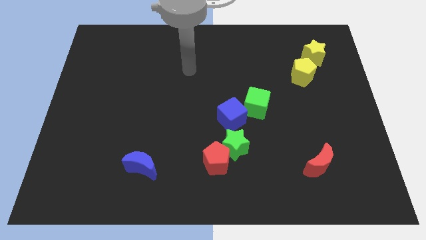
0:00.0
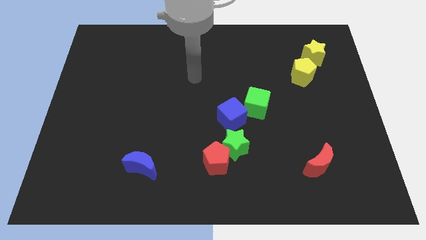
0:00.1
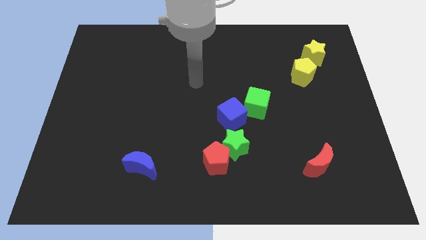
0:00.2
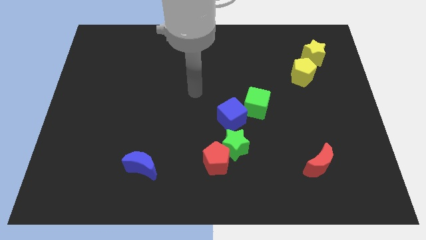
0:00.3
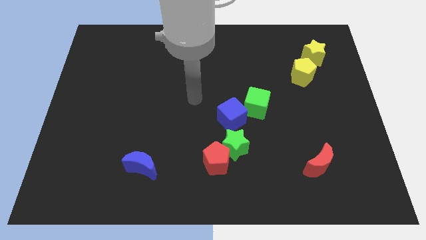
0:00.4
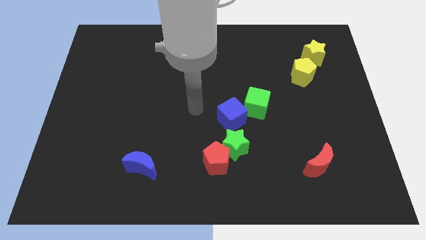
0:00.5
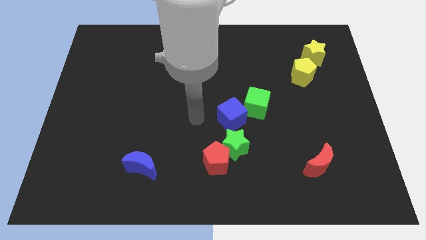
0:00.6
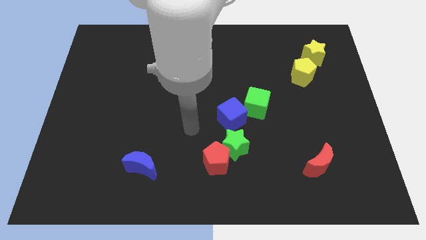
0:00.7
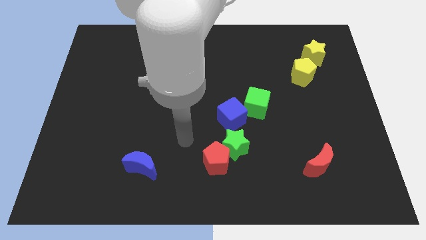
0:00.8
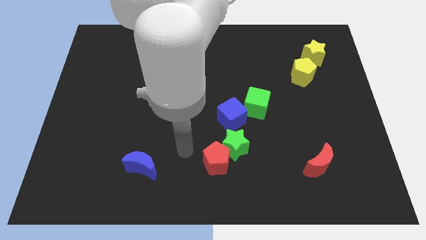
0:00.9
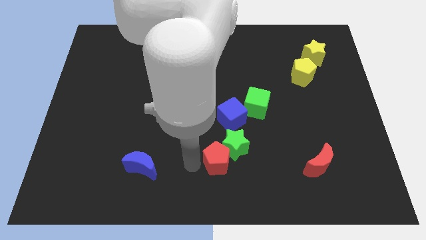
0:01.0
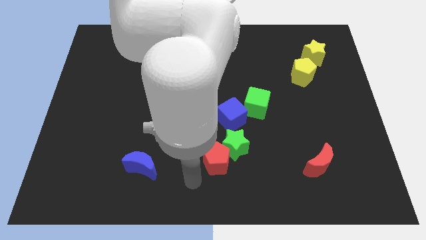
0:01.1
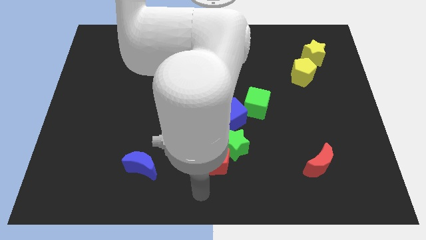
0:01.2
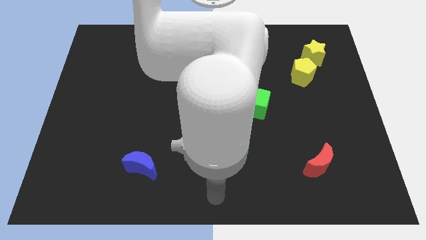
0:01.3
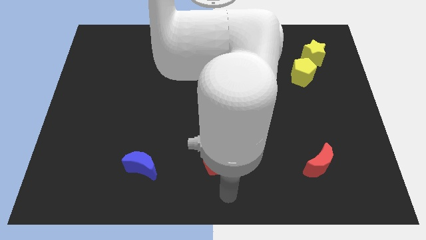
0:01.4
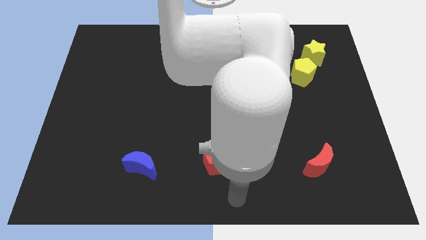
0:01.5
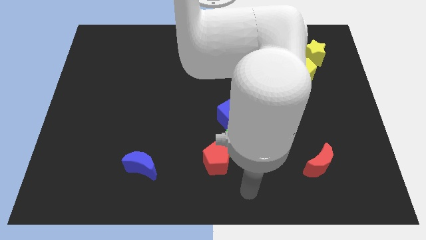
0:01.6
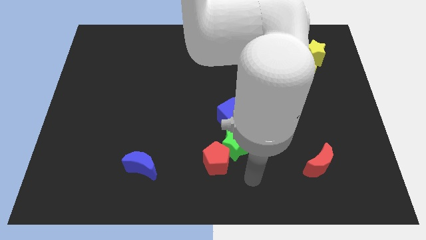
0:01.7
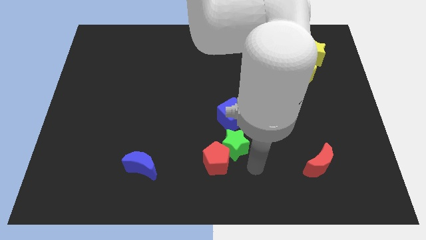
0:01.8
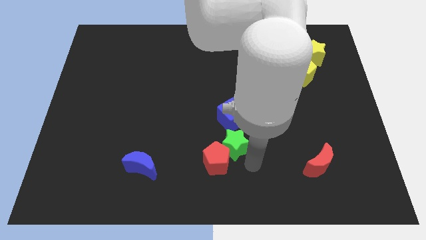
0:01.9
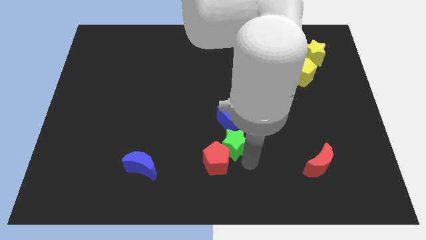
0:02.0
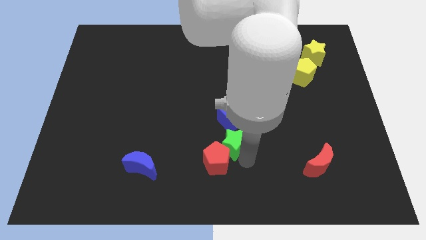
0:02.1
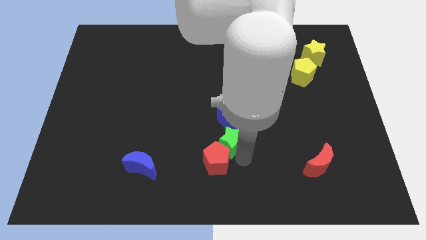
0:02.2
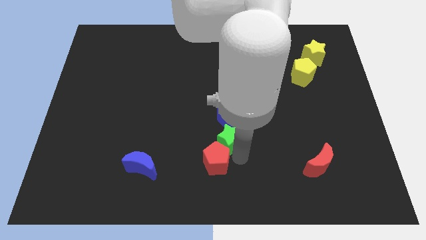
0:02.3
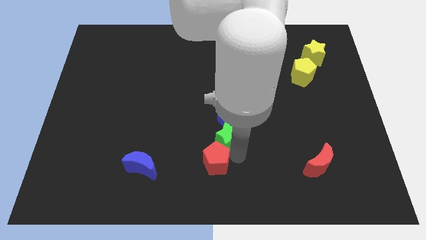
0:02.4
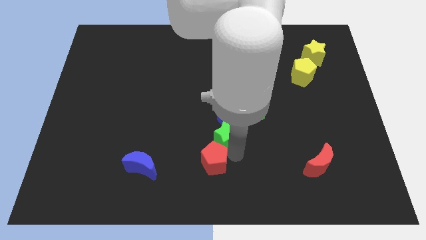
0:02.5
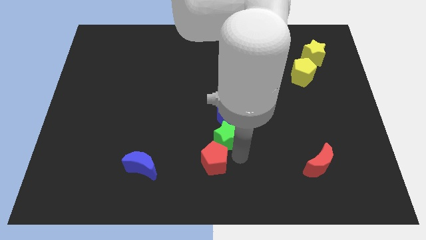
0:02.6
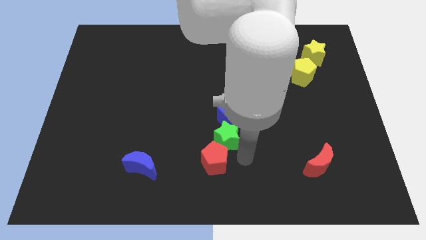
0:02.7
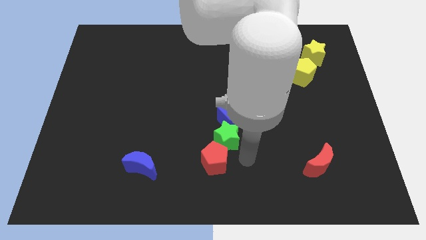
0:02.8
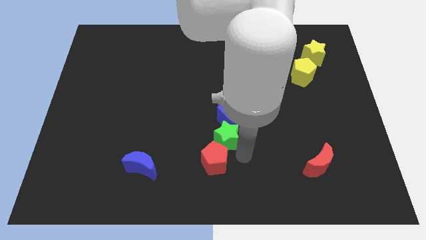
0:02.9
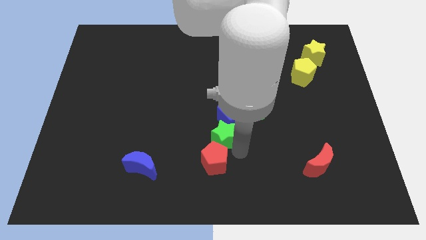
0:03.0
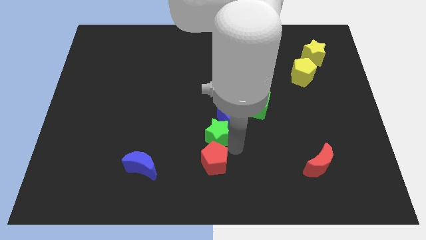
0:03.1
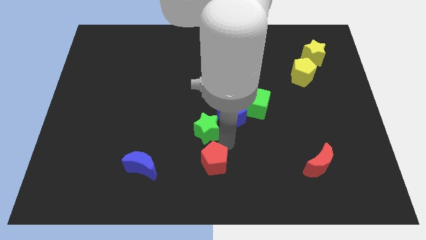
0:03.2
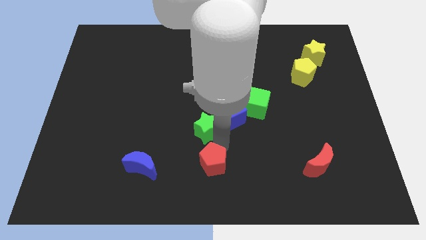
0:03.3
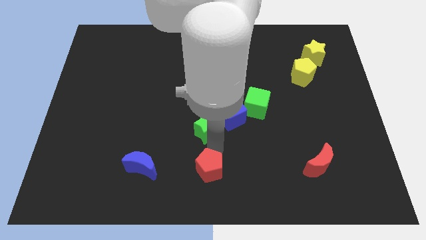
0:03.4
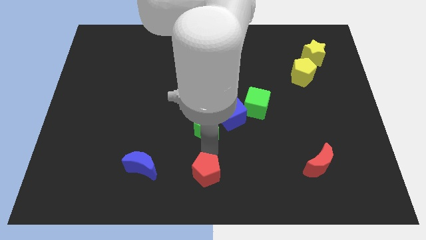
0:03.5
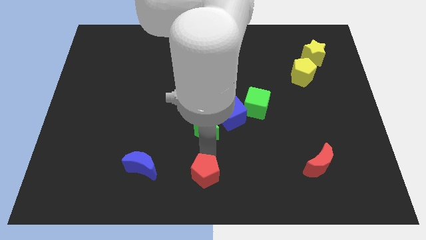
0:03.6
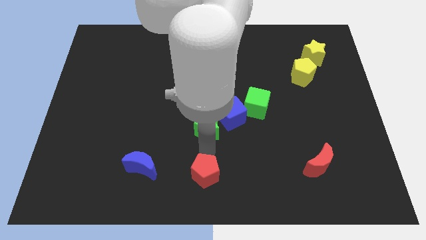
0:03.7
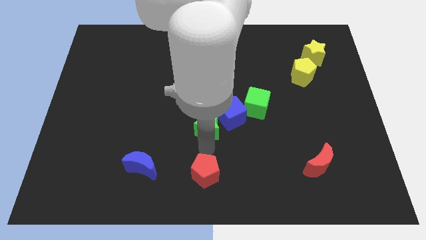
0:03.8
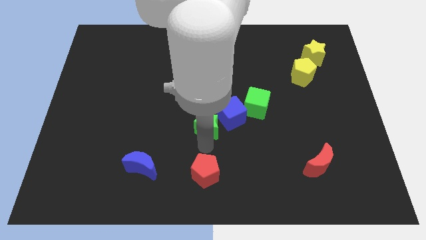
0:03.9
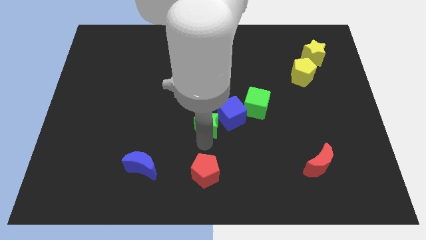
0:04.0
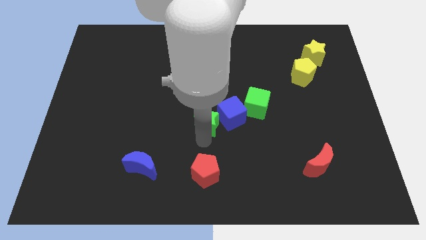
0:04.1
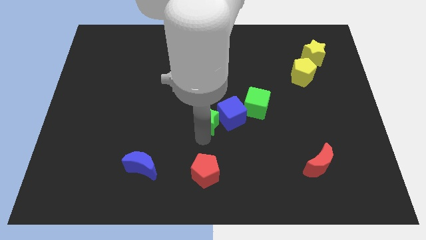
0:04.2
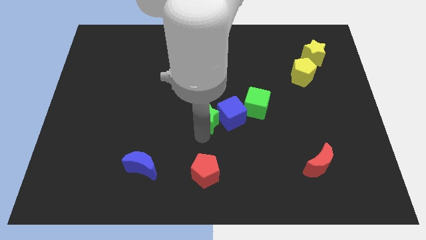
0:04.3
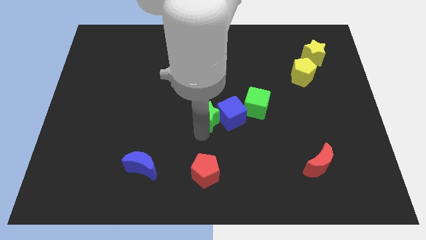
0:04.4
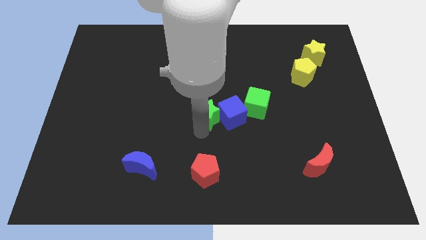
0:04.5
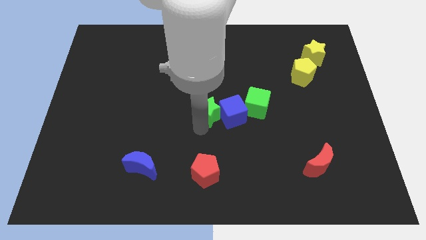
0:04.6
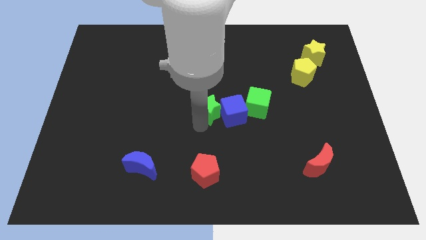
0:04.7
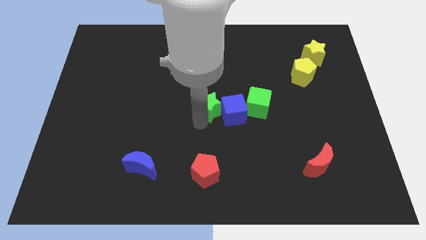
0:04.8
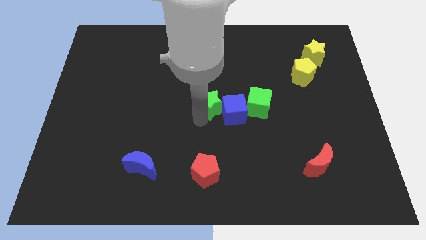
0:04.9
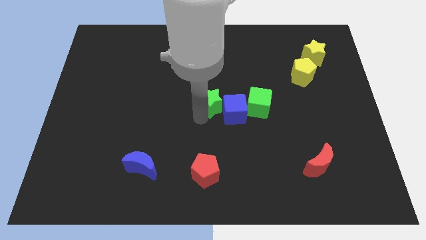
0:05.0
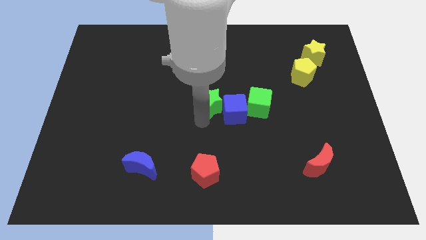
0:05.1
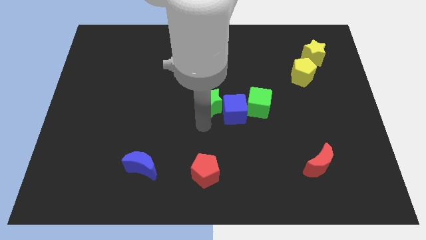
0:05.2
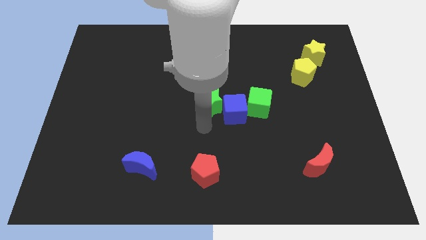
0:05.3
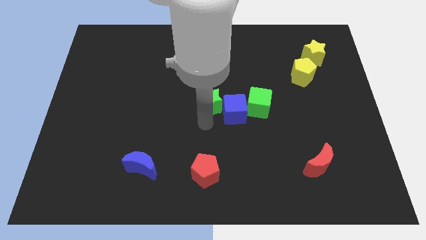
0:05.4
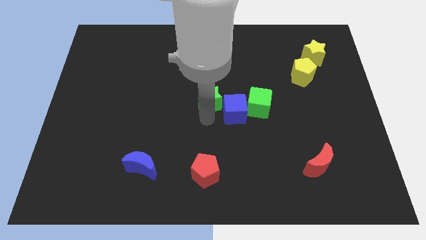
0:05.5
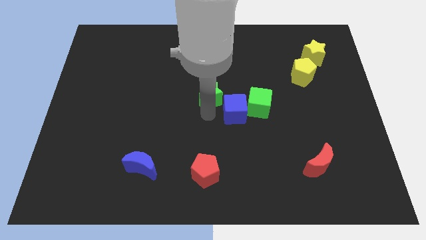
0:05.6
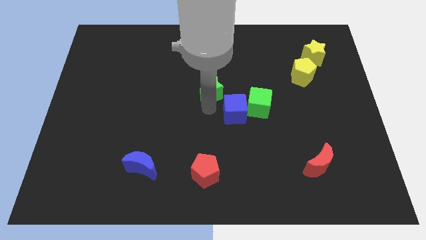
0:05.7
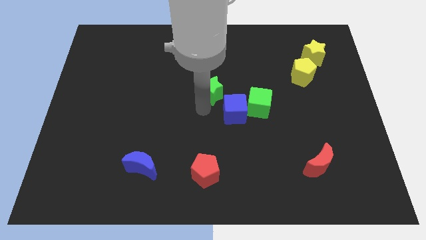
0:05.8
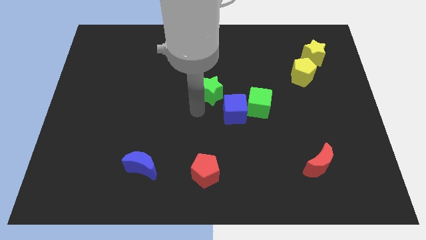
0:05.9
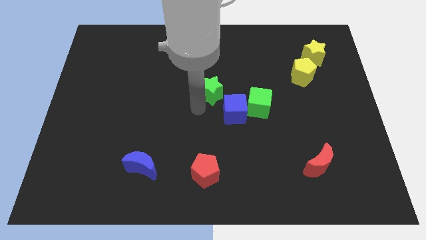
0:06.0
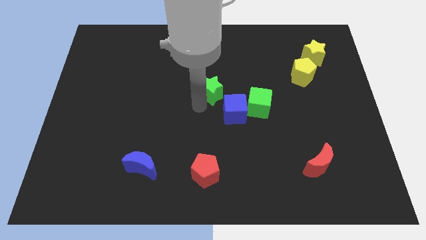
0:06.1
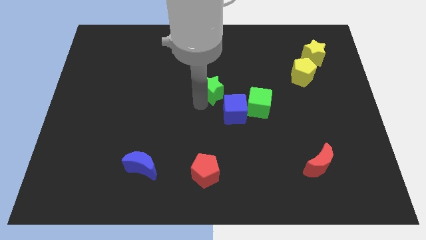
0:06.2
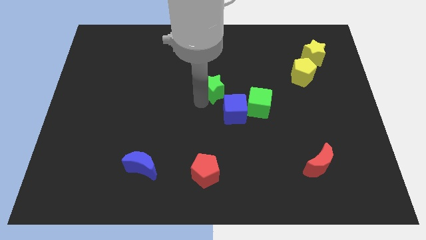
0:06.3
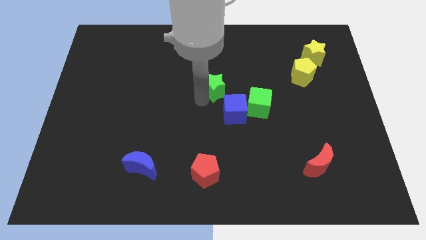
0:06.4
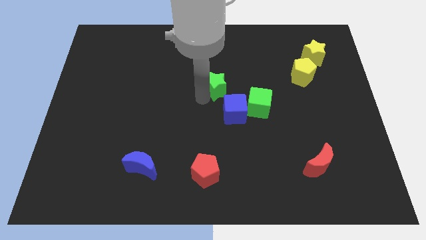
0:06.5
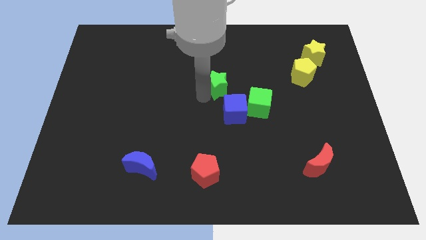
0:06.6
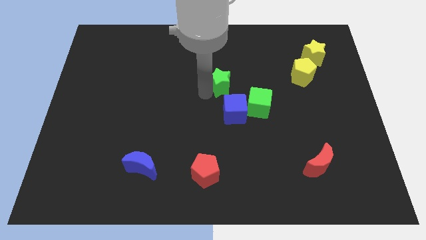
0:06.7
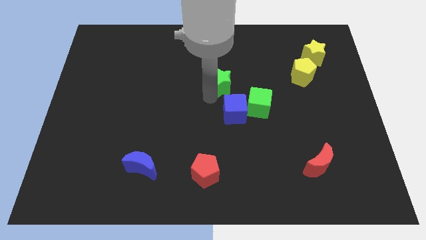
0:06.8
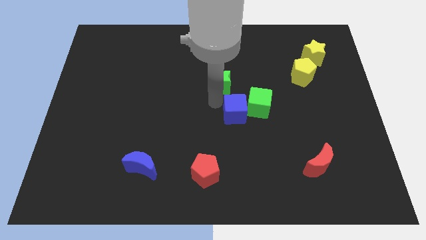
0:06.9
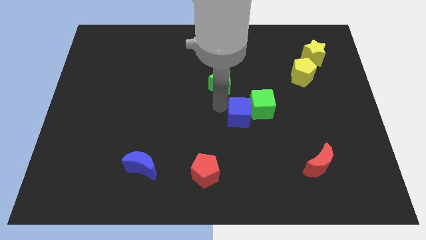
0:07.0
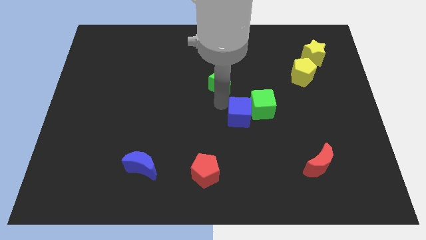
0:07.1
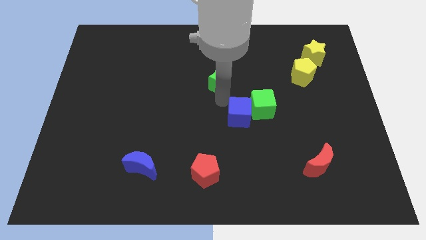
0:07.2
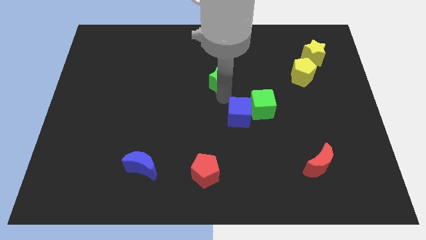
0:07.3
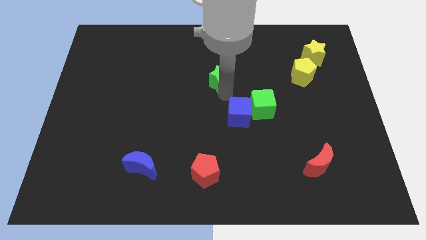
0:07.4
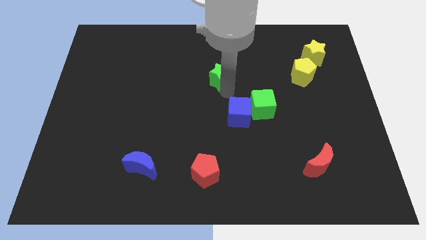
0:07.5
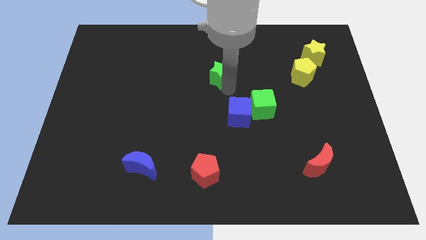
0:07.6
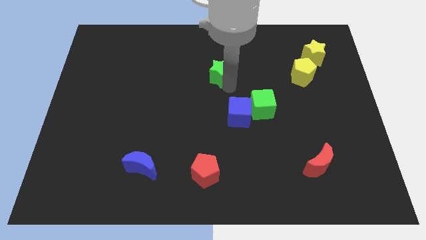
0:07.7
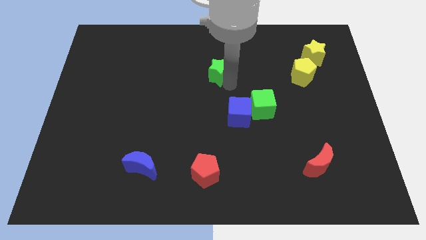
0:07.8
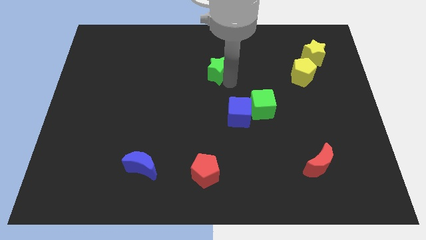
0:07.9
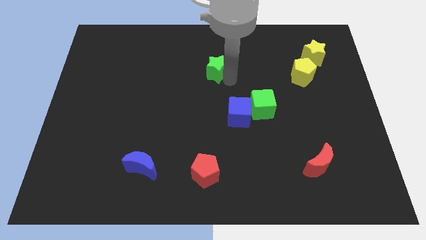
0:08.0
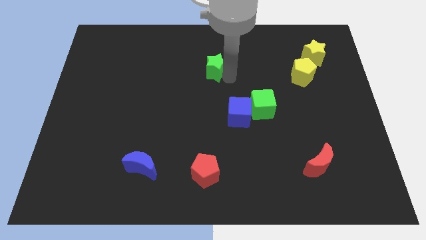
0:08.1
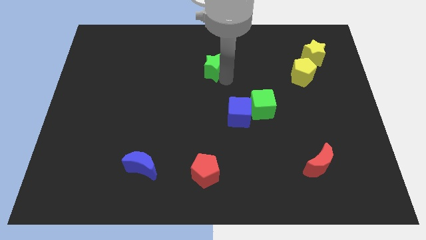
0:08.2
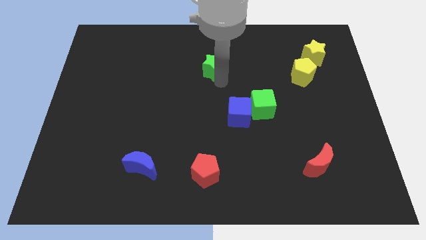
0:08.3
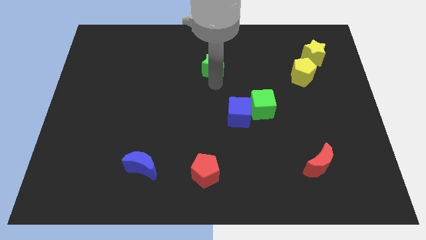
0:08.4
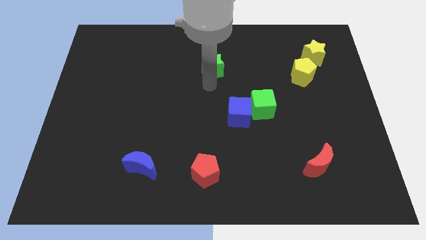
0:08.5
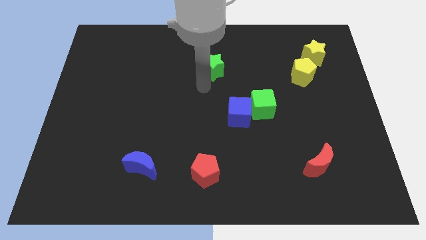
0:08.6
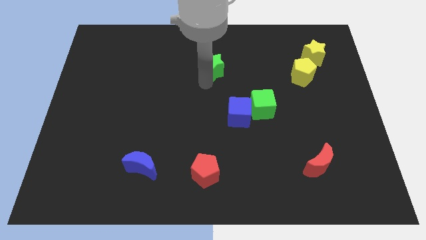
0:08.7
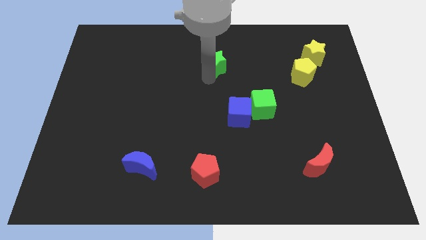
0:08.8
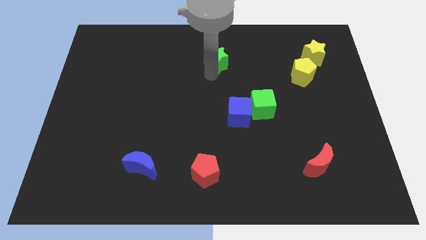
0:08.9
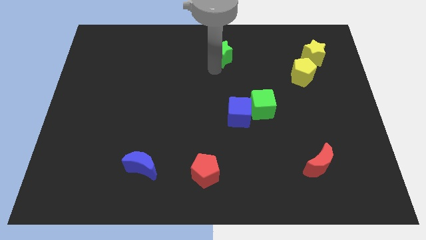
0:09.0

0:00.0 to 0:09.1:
push the green star to the top side
